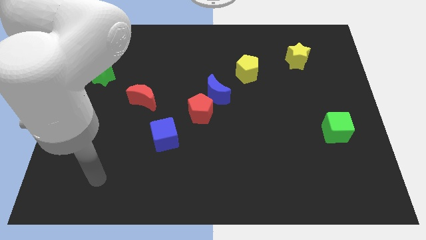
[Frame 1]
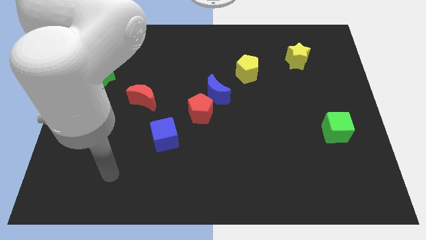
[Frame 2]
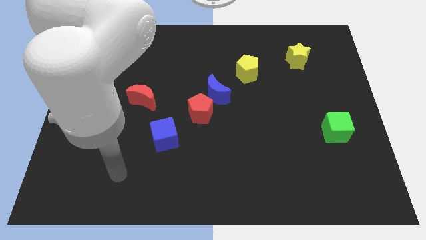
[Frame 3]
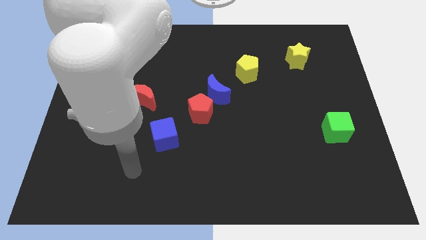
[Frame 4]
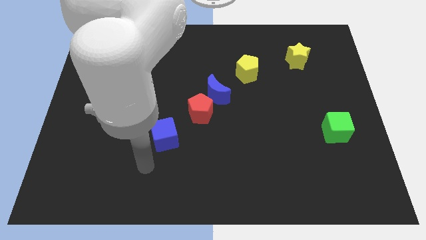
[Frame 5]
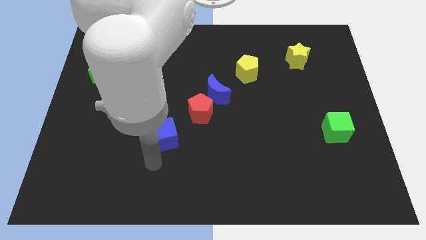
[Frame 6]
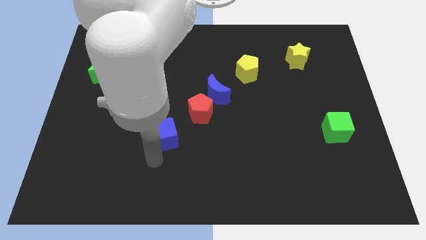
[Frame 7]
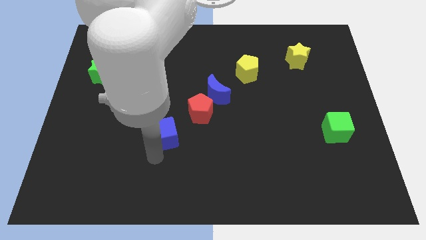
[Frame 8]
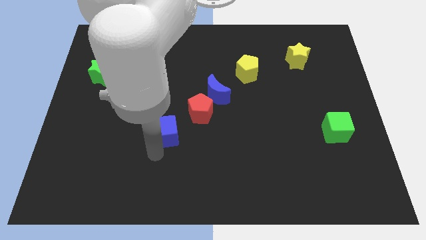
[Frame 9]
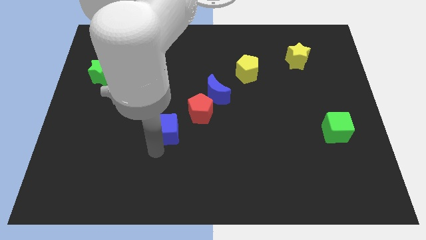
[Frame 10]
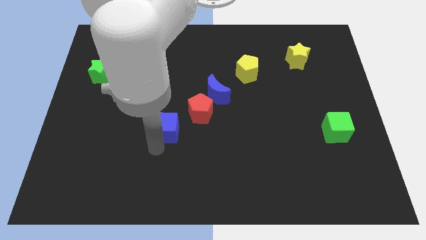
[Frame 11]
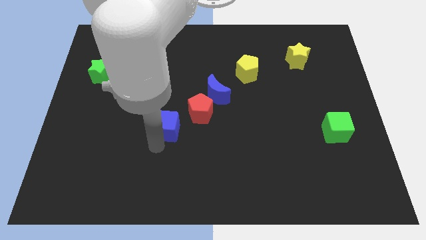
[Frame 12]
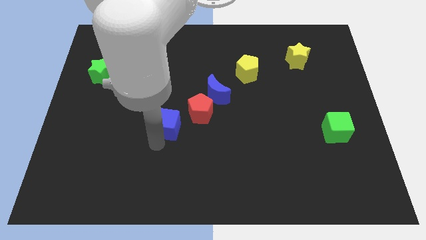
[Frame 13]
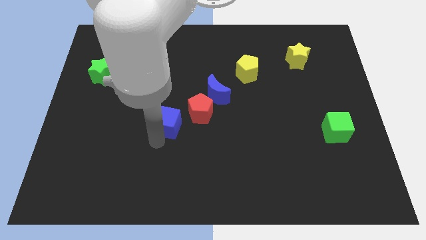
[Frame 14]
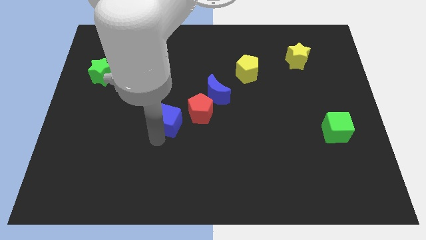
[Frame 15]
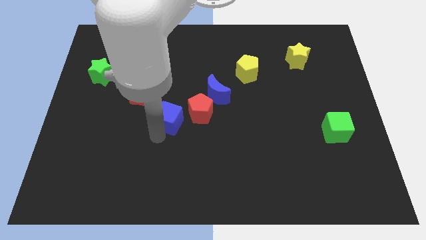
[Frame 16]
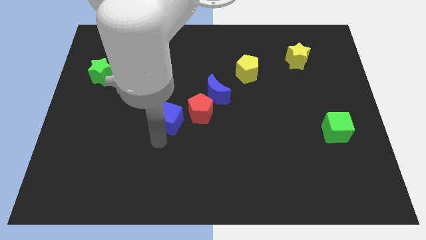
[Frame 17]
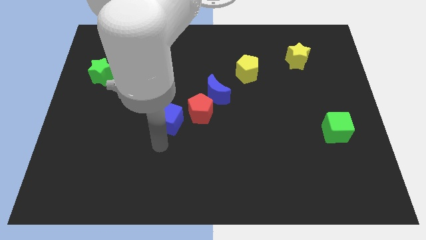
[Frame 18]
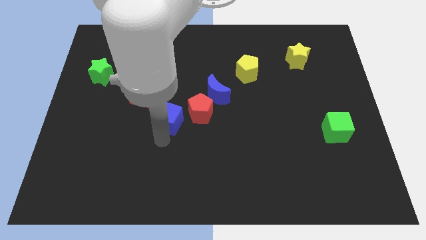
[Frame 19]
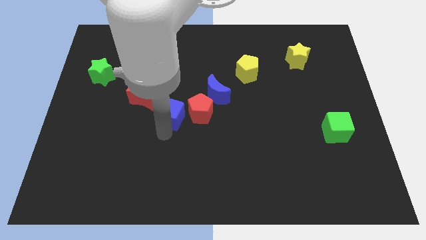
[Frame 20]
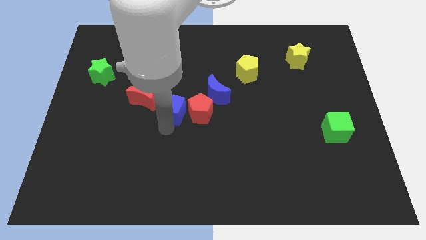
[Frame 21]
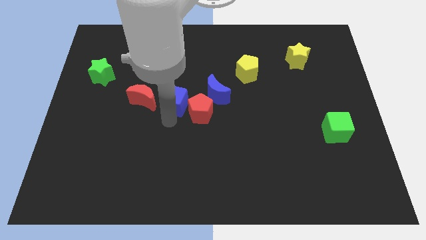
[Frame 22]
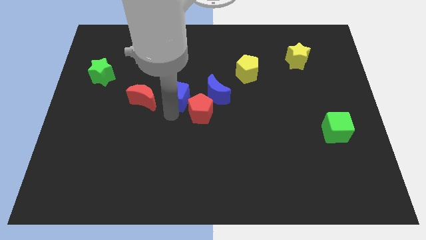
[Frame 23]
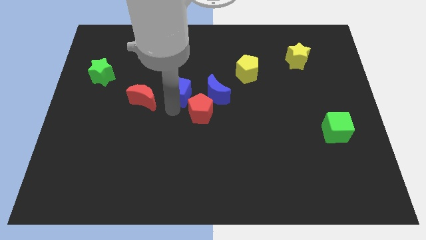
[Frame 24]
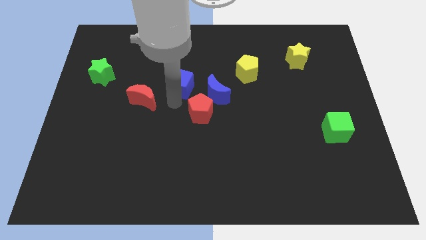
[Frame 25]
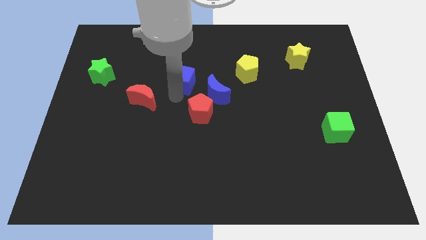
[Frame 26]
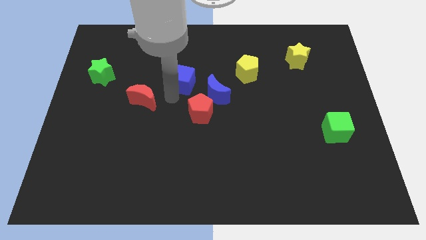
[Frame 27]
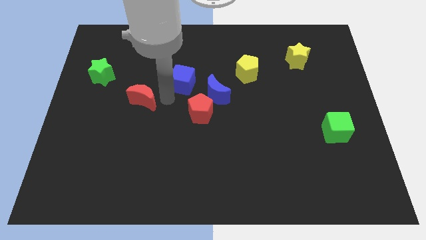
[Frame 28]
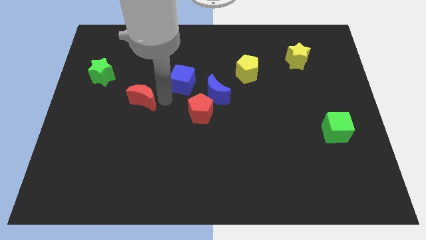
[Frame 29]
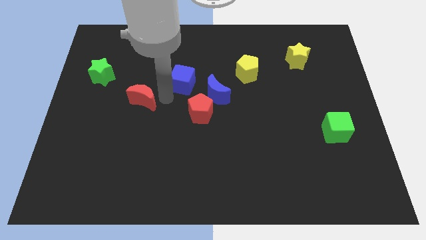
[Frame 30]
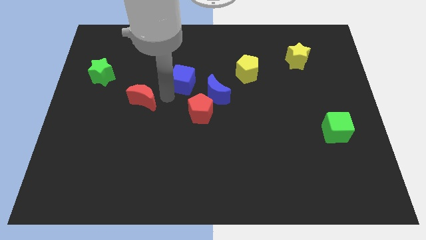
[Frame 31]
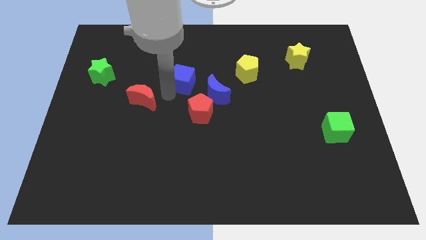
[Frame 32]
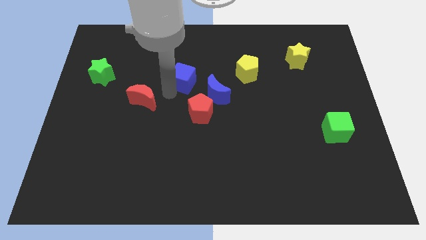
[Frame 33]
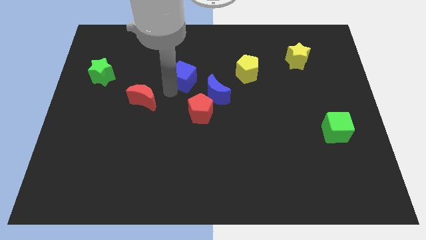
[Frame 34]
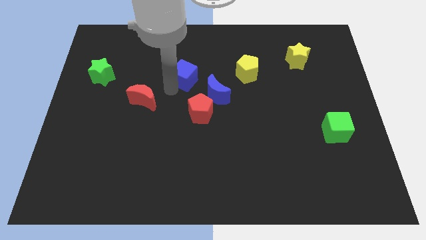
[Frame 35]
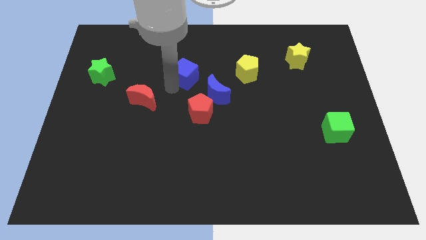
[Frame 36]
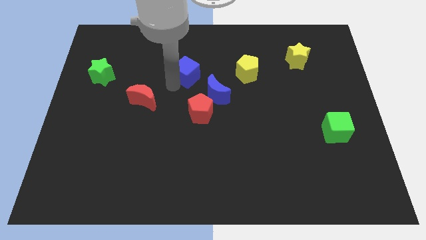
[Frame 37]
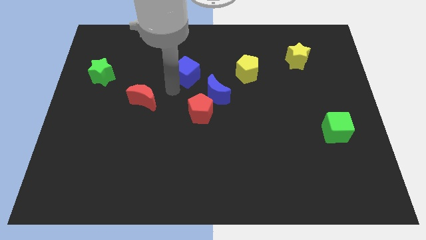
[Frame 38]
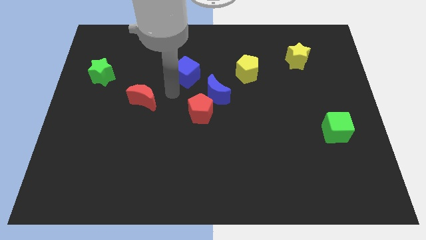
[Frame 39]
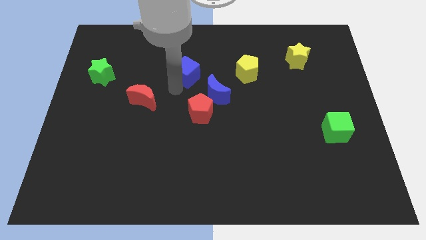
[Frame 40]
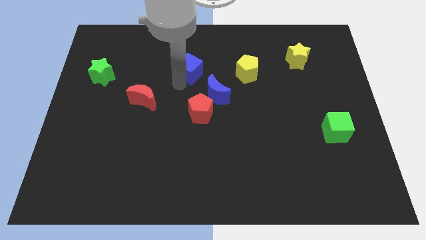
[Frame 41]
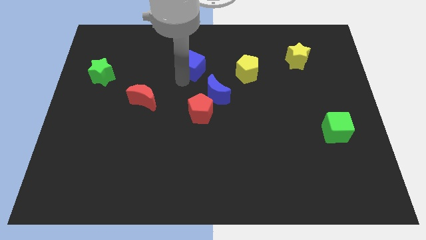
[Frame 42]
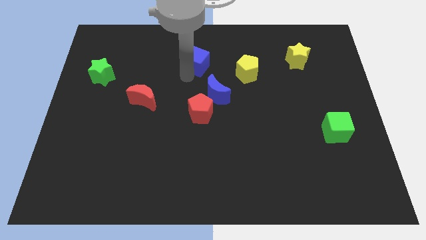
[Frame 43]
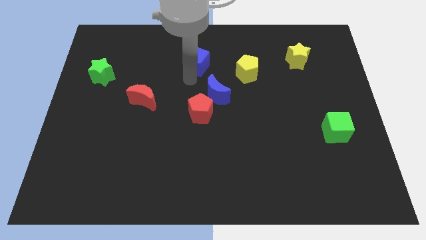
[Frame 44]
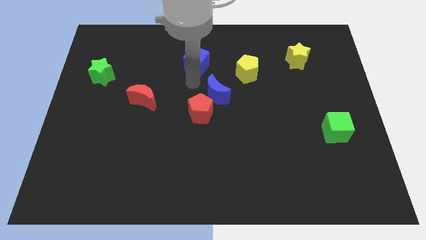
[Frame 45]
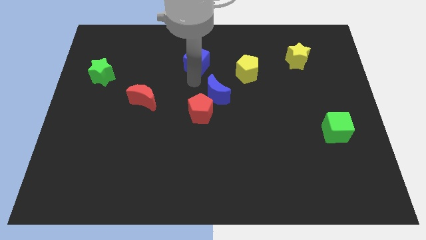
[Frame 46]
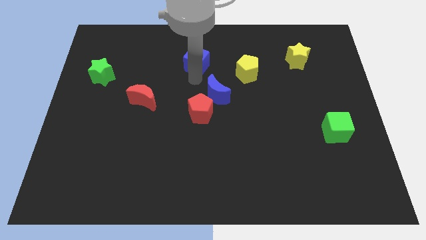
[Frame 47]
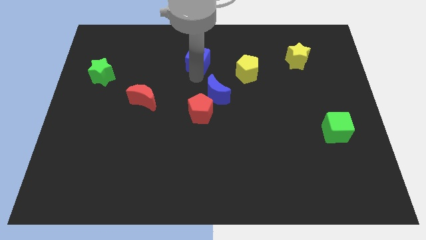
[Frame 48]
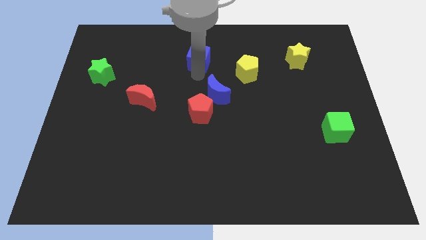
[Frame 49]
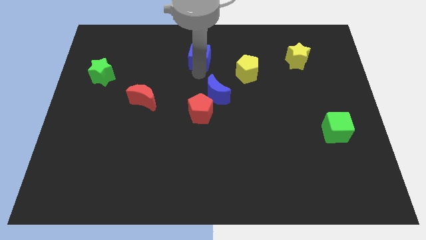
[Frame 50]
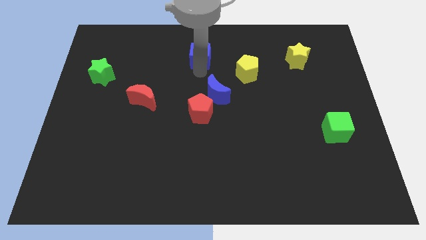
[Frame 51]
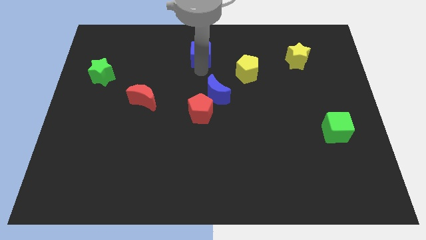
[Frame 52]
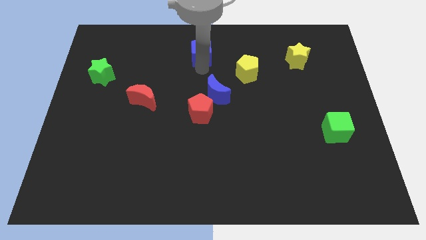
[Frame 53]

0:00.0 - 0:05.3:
slide the blue cube to the top

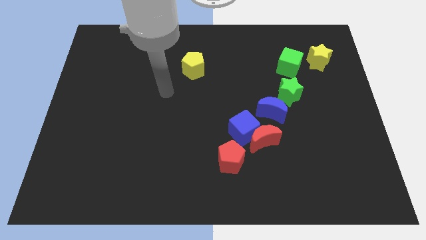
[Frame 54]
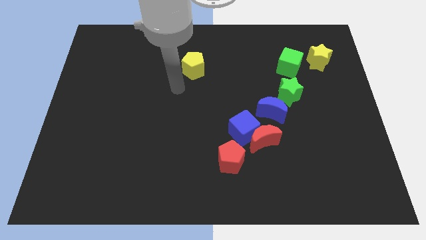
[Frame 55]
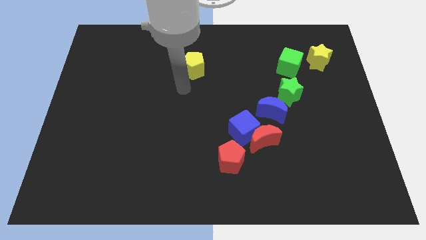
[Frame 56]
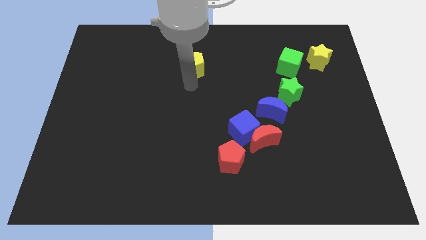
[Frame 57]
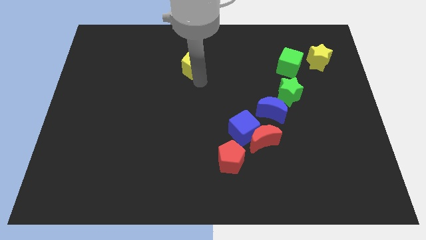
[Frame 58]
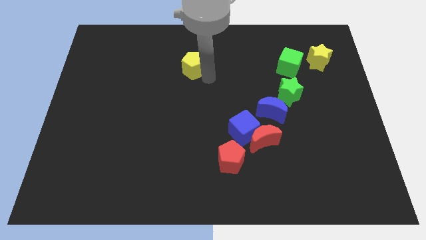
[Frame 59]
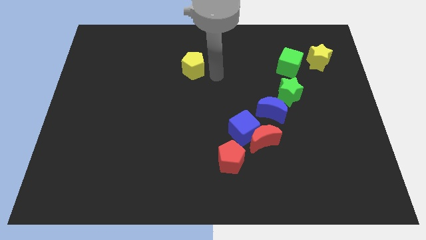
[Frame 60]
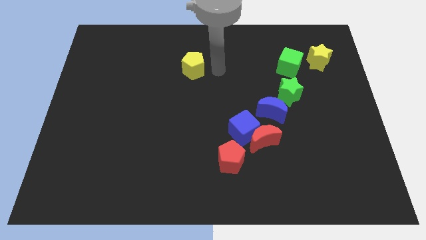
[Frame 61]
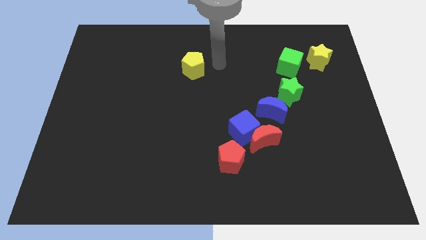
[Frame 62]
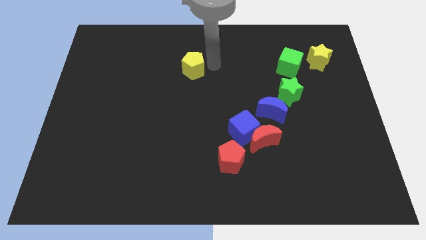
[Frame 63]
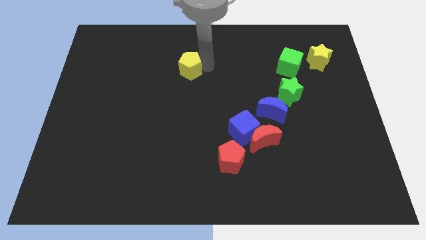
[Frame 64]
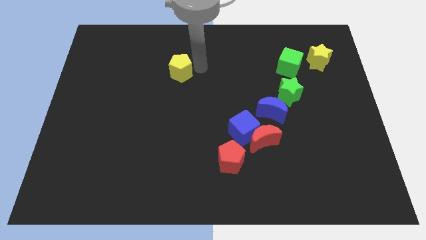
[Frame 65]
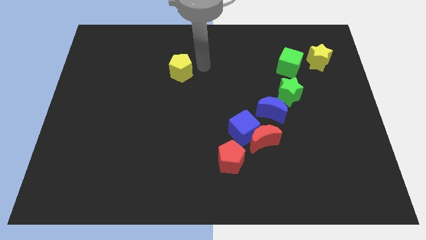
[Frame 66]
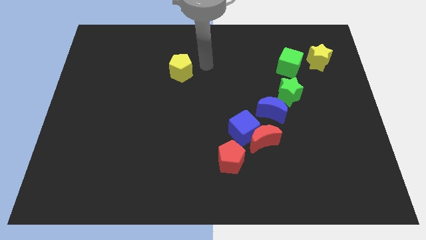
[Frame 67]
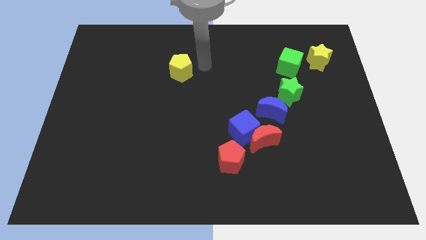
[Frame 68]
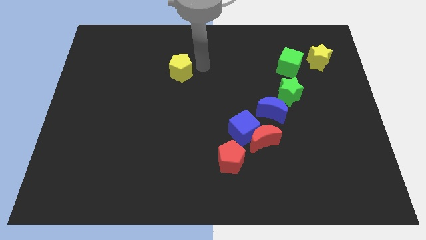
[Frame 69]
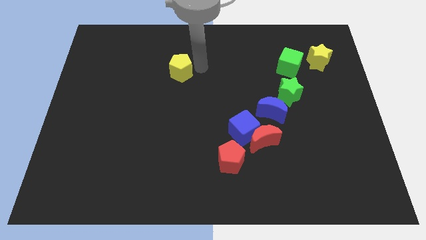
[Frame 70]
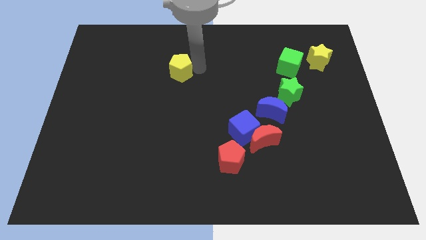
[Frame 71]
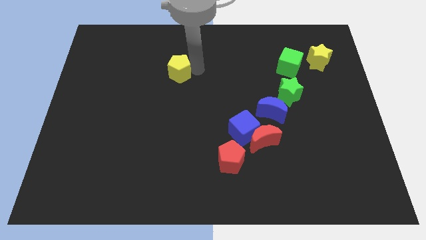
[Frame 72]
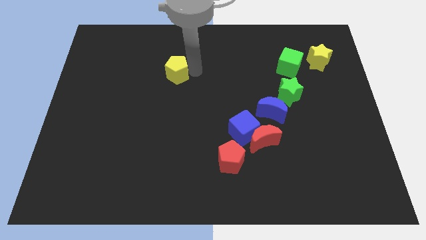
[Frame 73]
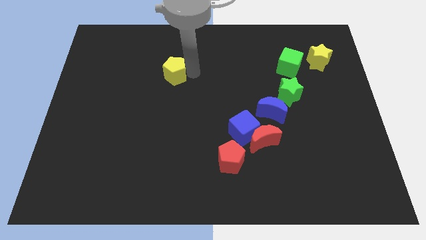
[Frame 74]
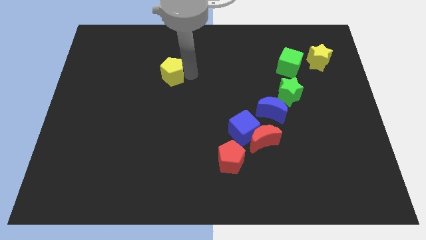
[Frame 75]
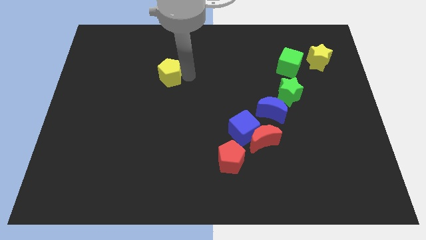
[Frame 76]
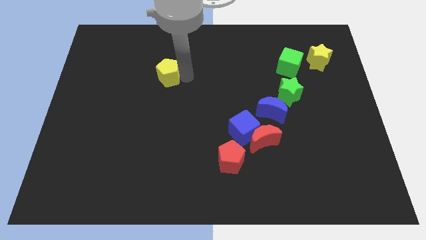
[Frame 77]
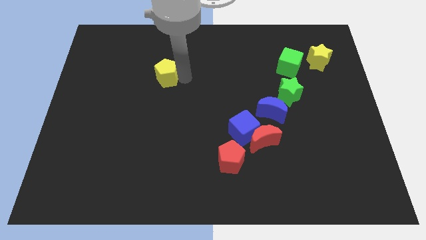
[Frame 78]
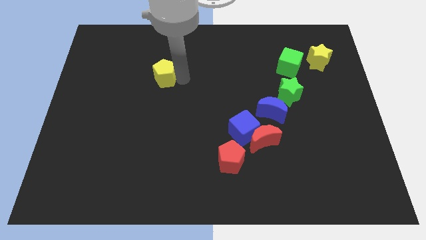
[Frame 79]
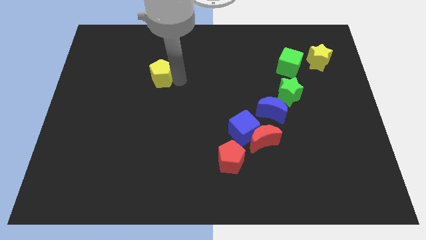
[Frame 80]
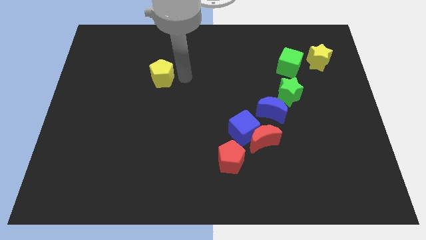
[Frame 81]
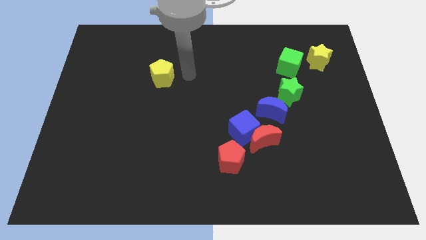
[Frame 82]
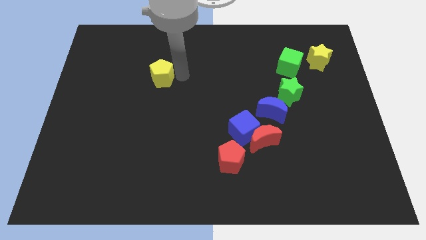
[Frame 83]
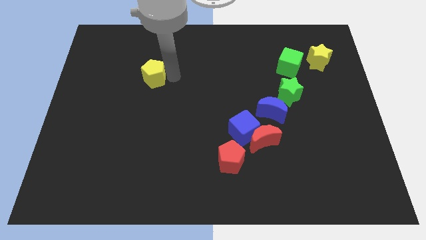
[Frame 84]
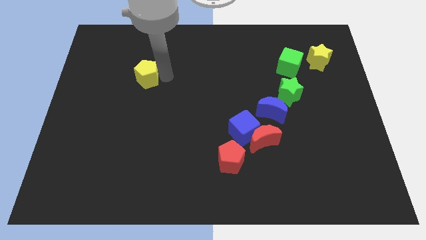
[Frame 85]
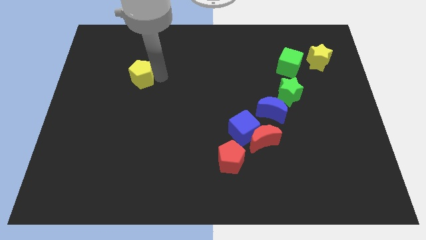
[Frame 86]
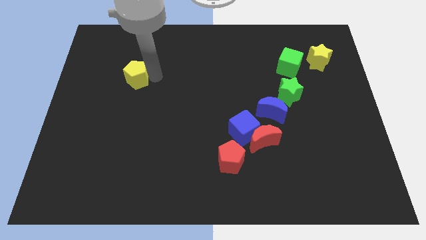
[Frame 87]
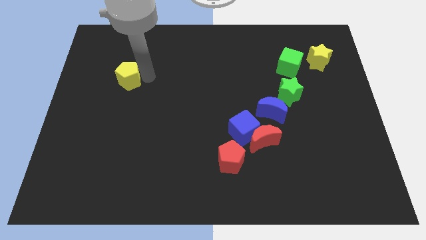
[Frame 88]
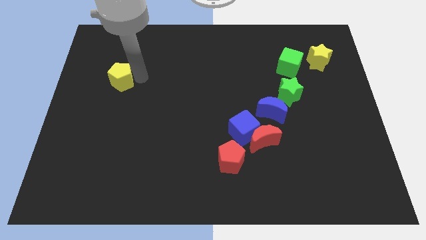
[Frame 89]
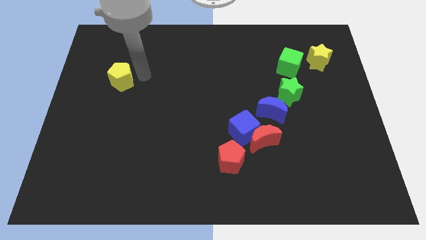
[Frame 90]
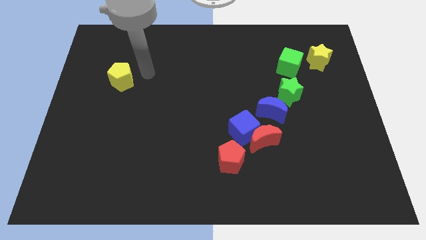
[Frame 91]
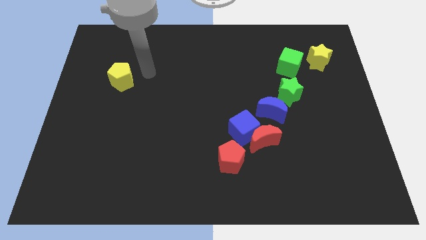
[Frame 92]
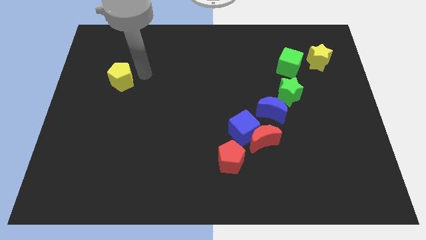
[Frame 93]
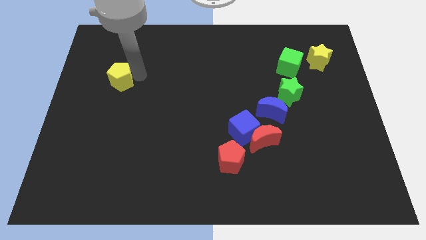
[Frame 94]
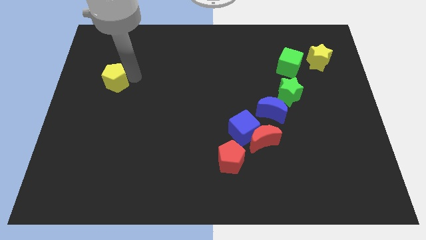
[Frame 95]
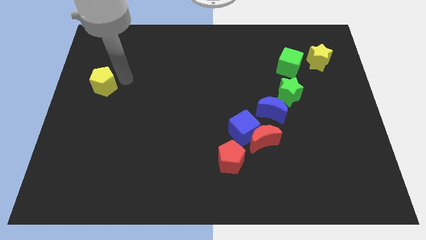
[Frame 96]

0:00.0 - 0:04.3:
push the yellow pentagon to the left side
